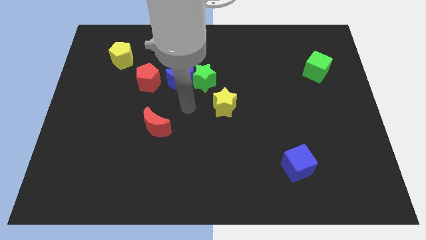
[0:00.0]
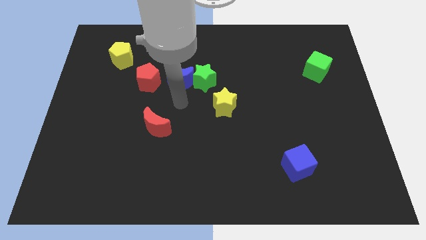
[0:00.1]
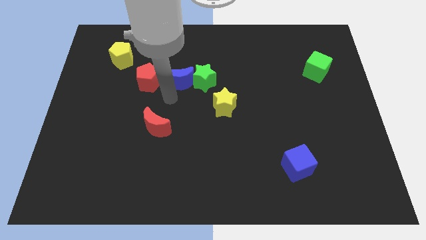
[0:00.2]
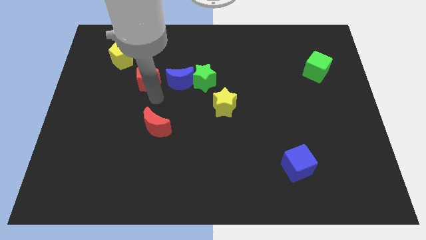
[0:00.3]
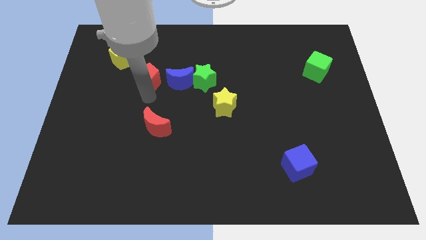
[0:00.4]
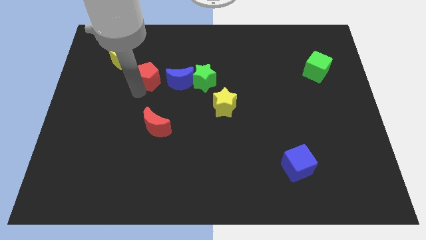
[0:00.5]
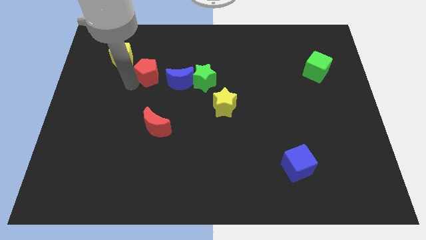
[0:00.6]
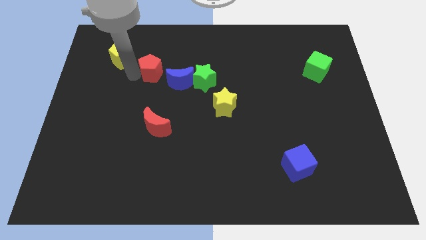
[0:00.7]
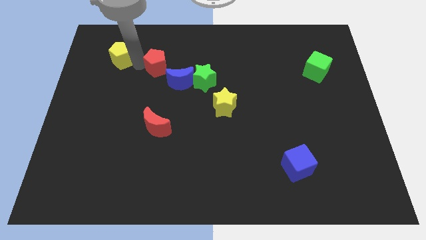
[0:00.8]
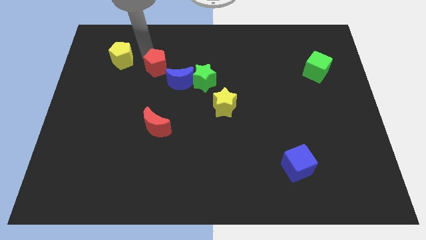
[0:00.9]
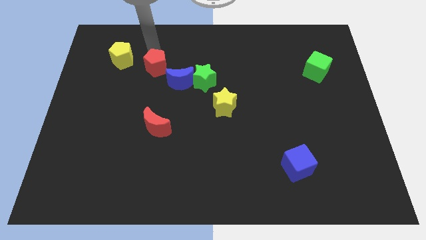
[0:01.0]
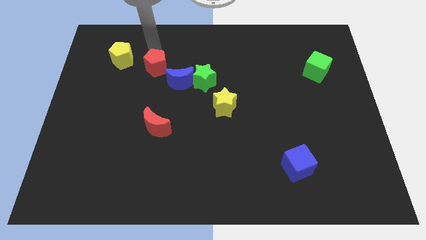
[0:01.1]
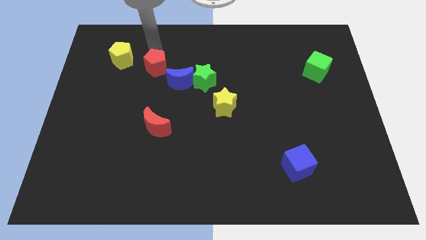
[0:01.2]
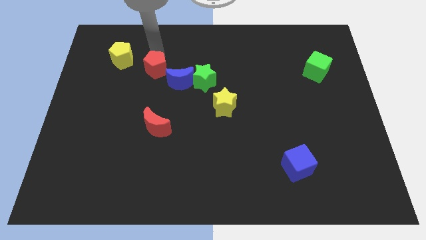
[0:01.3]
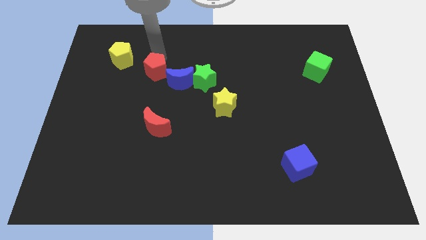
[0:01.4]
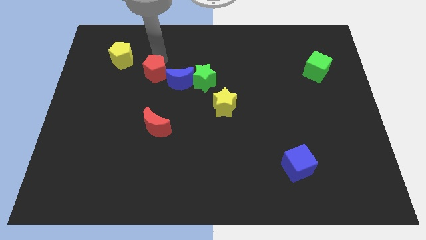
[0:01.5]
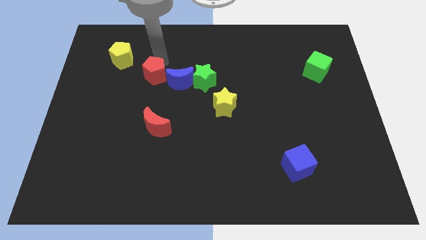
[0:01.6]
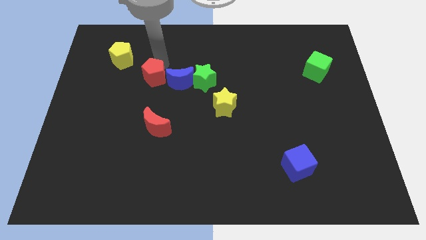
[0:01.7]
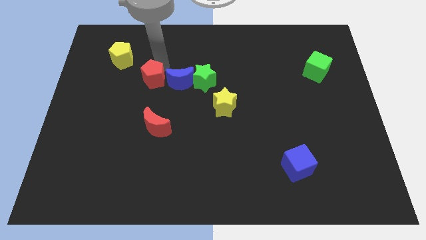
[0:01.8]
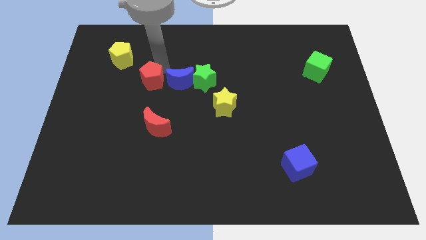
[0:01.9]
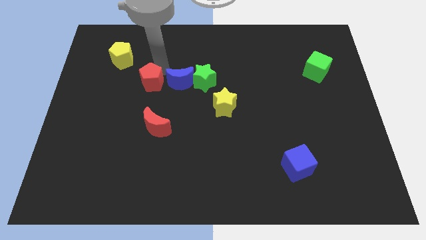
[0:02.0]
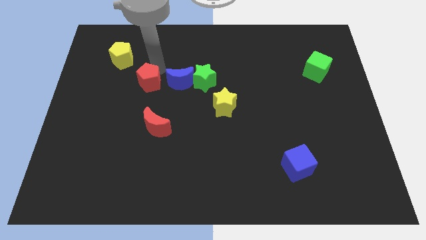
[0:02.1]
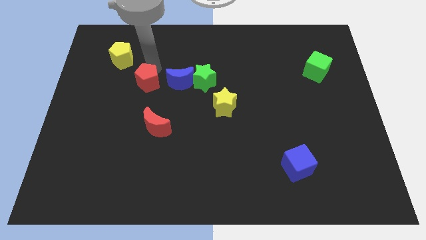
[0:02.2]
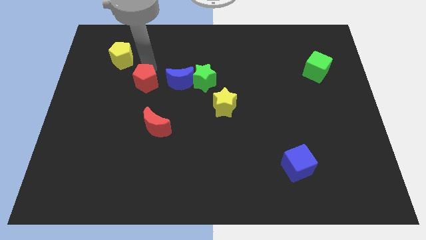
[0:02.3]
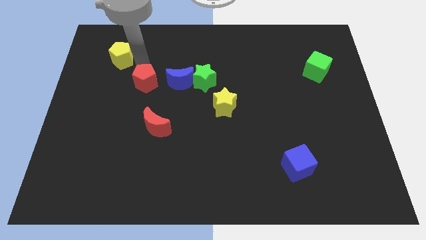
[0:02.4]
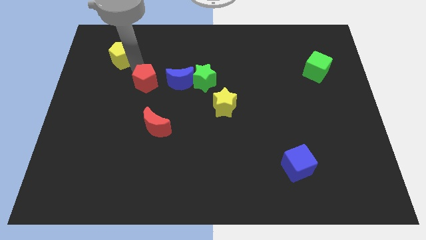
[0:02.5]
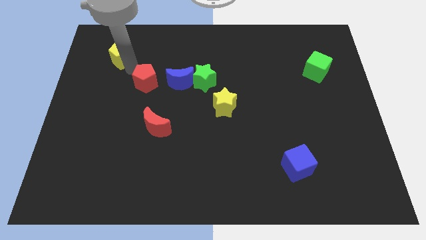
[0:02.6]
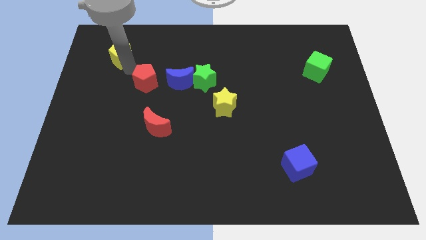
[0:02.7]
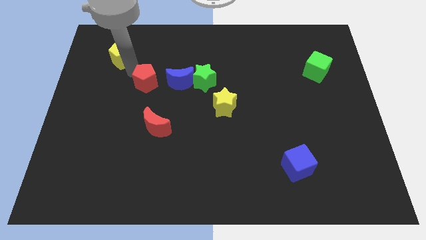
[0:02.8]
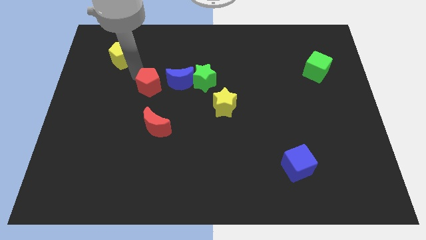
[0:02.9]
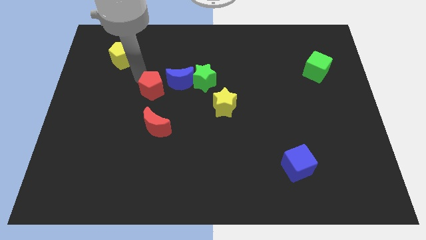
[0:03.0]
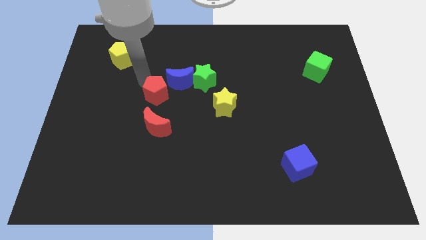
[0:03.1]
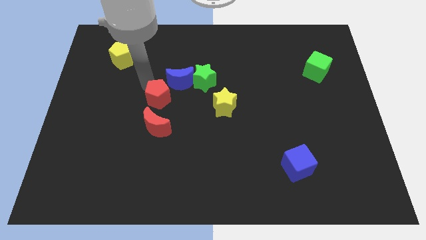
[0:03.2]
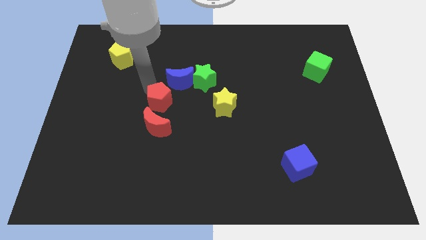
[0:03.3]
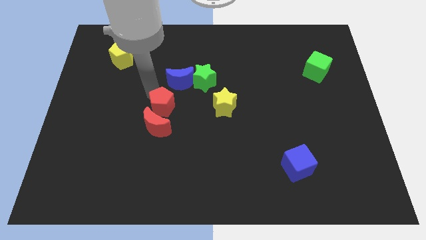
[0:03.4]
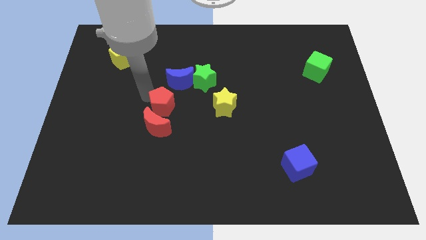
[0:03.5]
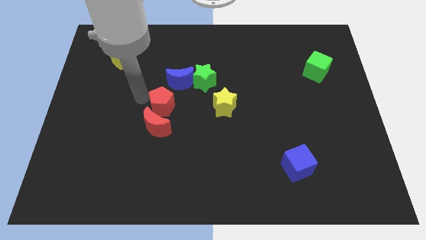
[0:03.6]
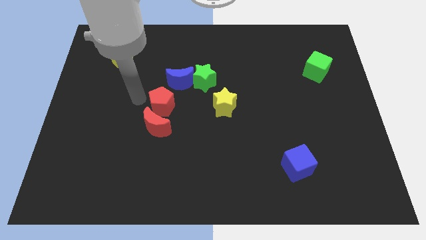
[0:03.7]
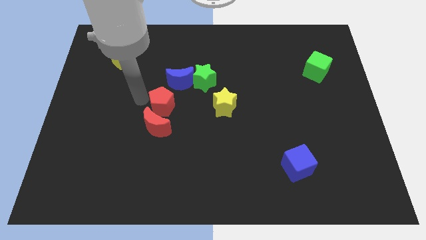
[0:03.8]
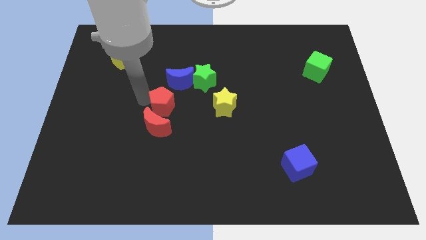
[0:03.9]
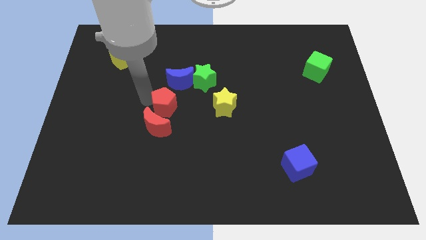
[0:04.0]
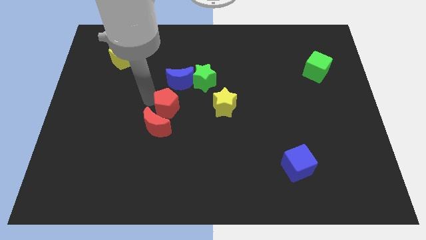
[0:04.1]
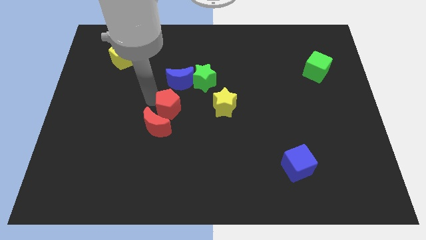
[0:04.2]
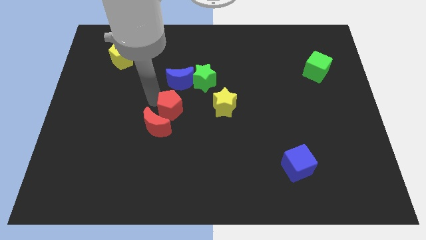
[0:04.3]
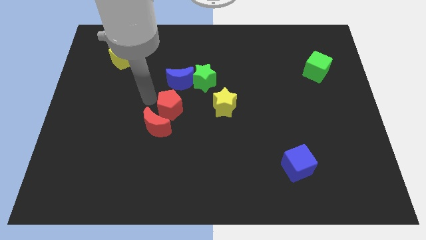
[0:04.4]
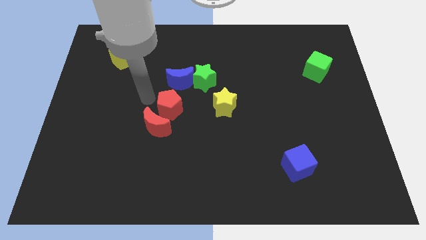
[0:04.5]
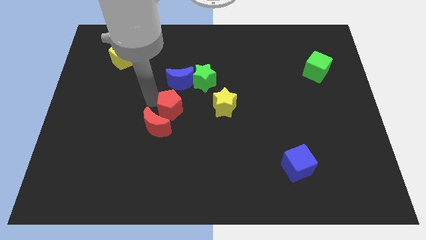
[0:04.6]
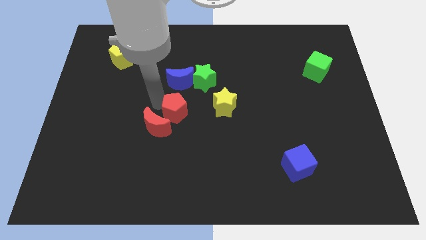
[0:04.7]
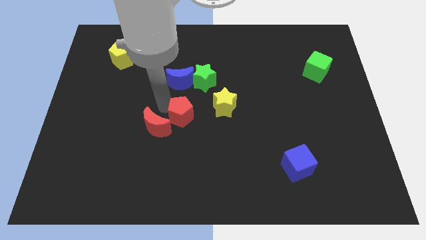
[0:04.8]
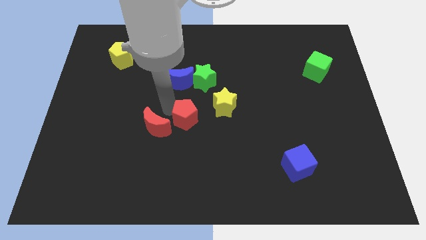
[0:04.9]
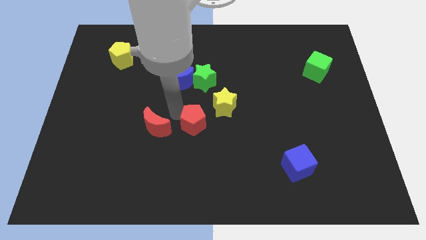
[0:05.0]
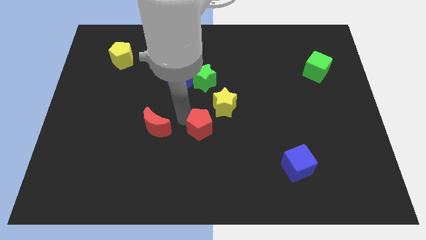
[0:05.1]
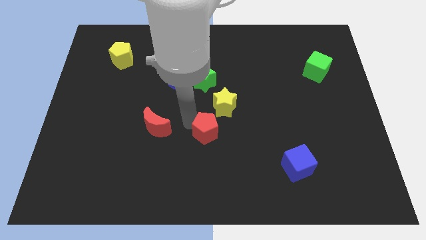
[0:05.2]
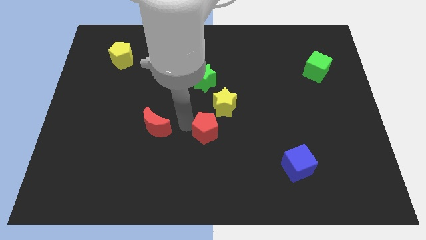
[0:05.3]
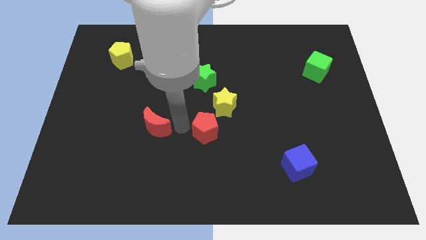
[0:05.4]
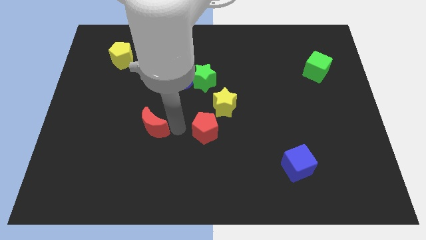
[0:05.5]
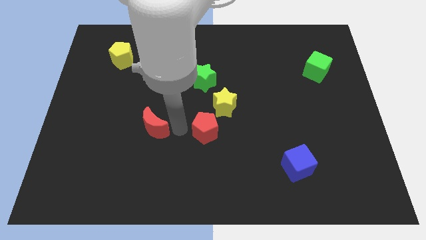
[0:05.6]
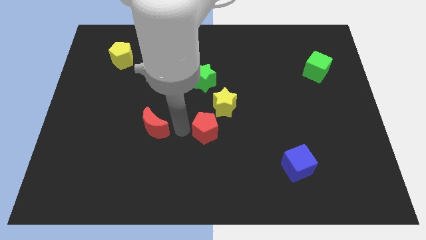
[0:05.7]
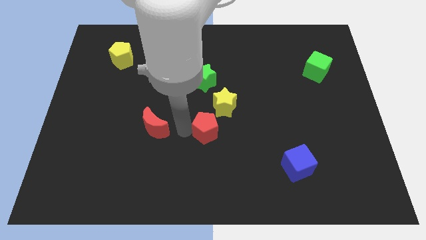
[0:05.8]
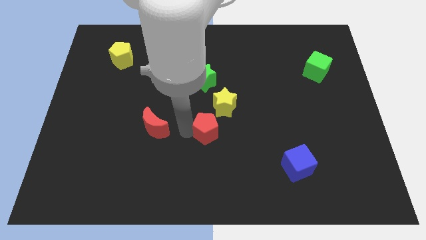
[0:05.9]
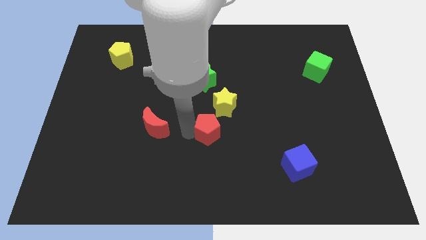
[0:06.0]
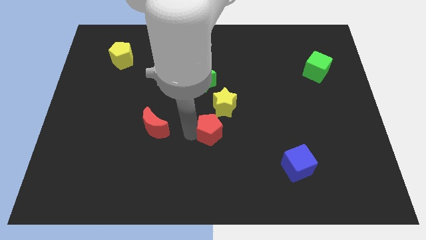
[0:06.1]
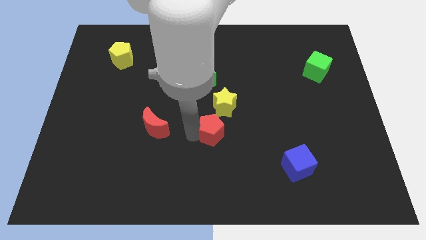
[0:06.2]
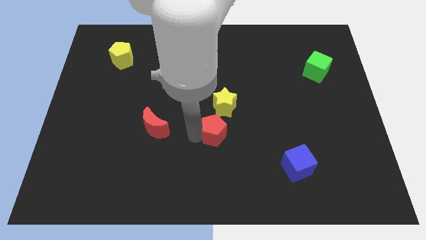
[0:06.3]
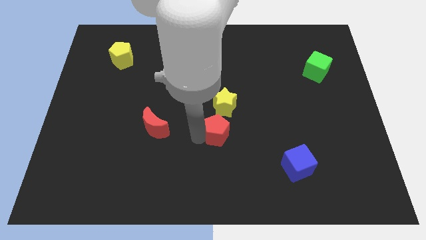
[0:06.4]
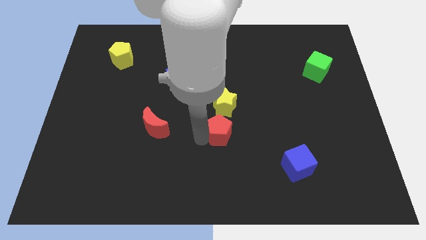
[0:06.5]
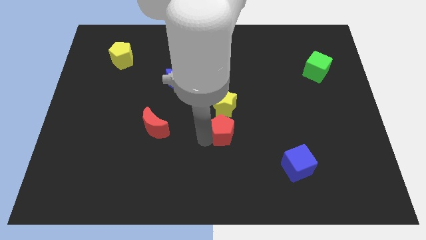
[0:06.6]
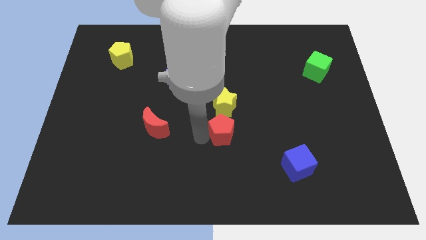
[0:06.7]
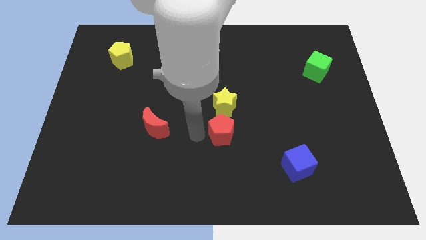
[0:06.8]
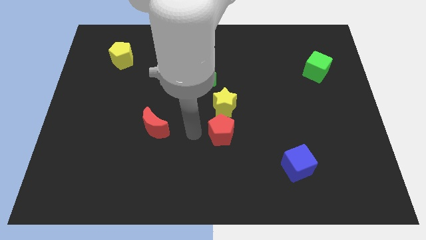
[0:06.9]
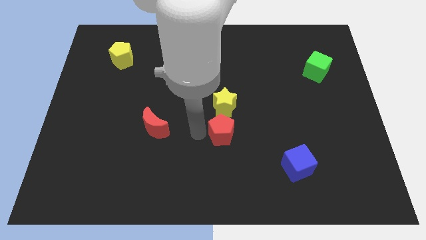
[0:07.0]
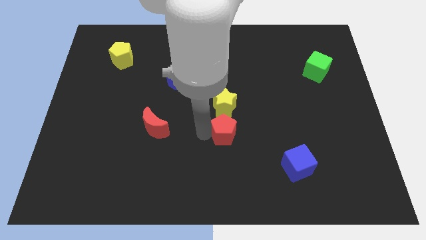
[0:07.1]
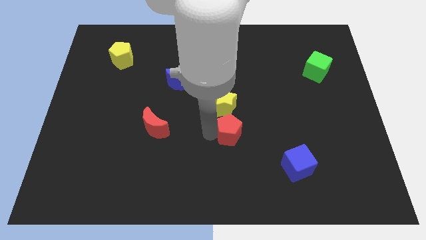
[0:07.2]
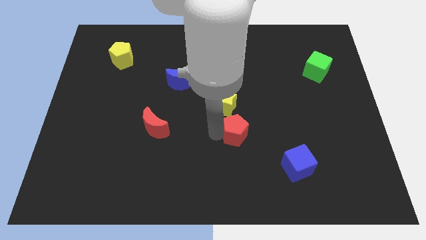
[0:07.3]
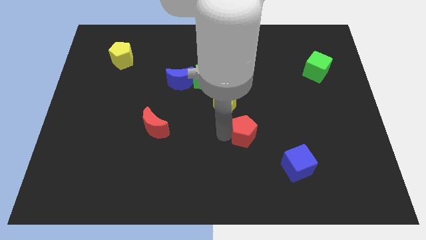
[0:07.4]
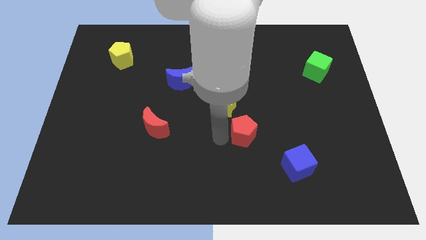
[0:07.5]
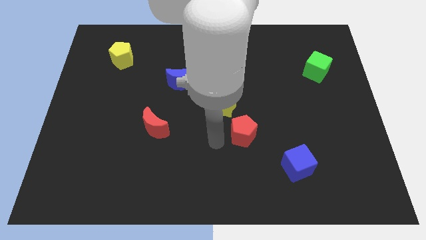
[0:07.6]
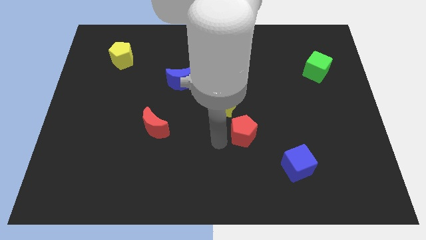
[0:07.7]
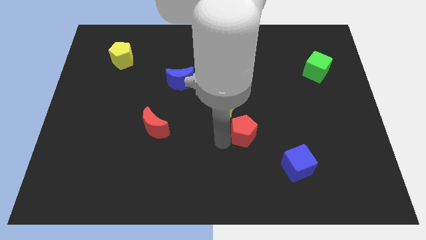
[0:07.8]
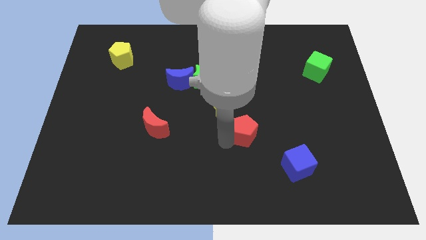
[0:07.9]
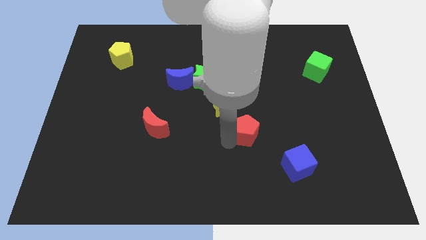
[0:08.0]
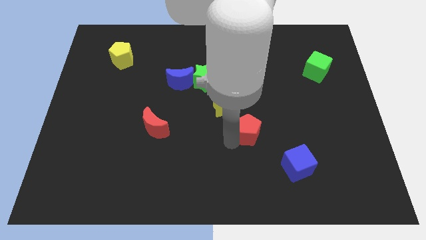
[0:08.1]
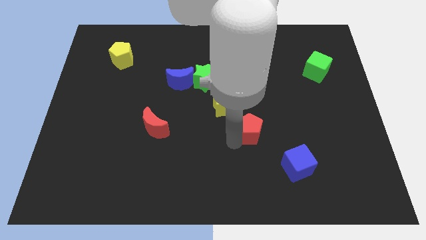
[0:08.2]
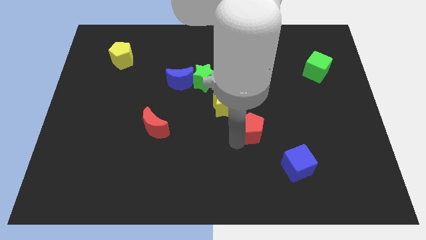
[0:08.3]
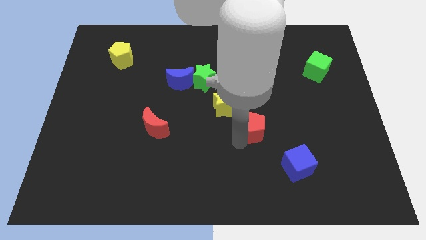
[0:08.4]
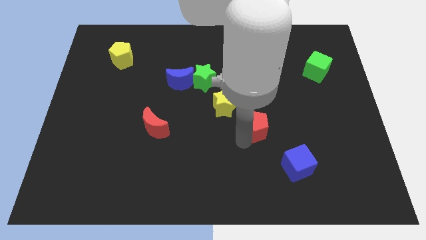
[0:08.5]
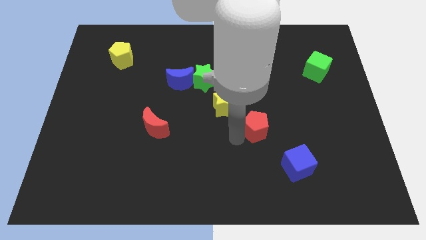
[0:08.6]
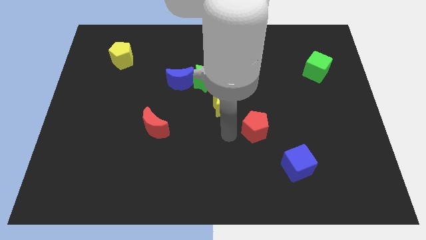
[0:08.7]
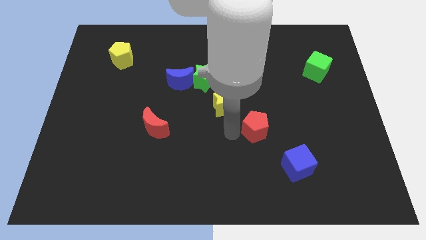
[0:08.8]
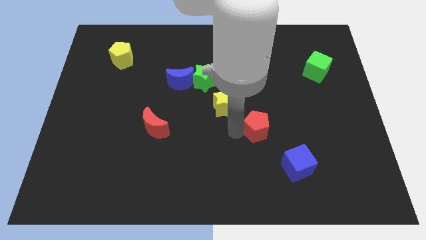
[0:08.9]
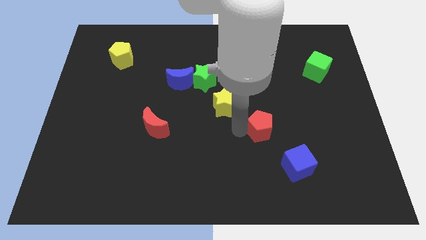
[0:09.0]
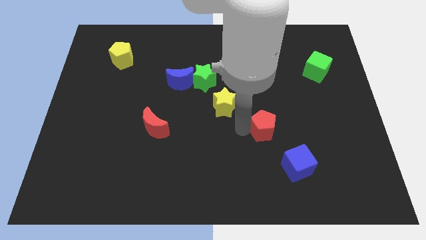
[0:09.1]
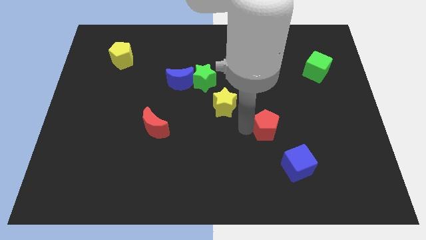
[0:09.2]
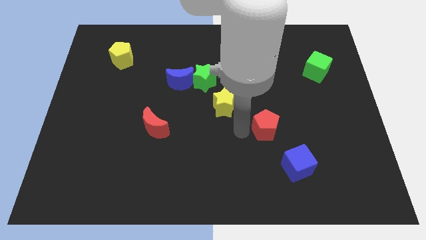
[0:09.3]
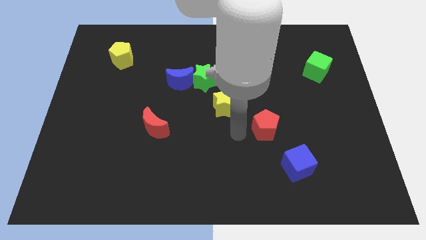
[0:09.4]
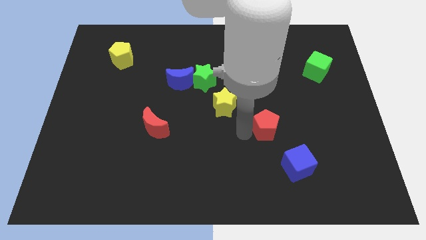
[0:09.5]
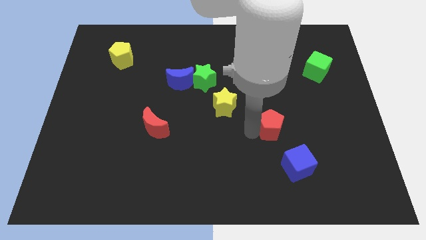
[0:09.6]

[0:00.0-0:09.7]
slide the red pentagon to the top side of the blue cube
